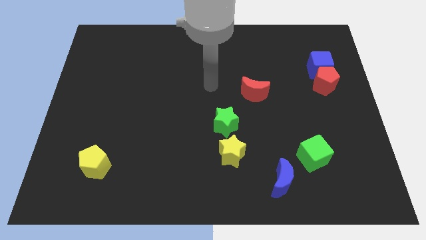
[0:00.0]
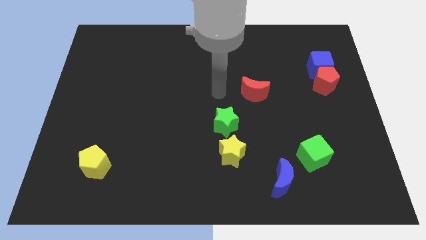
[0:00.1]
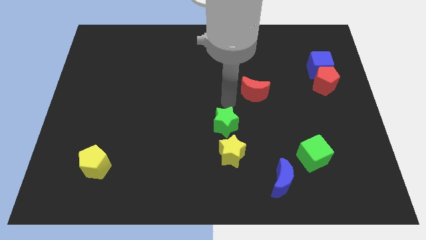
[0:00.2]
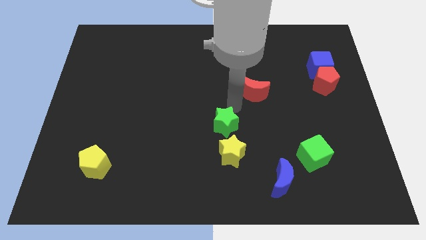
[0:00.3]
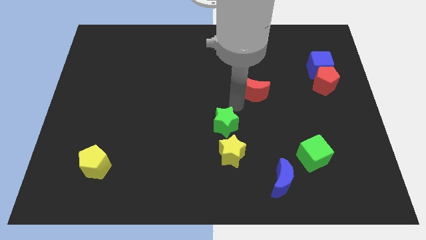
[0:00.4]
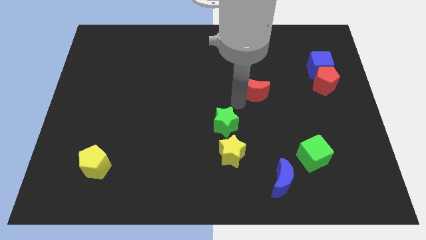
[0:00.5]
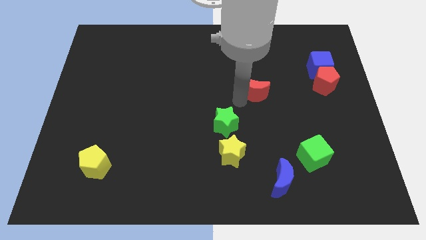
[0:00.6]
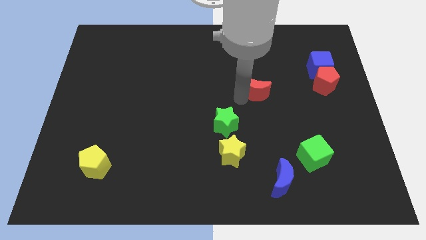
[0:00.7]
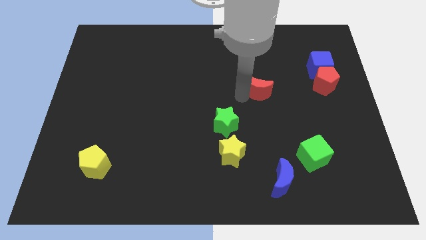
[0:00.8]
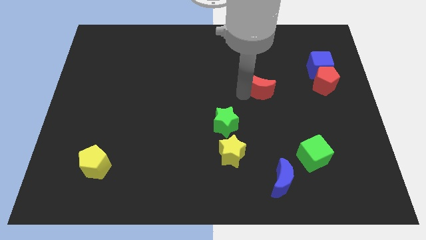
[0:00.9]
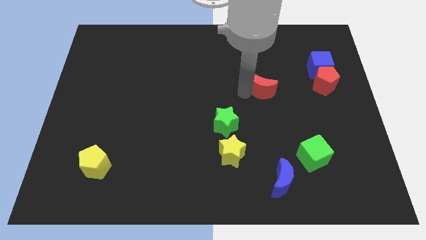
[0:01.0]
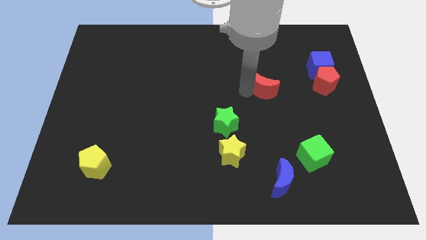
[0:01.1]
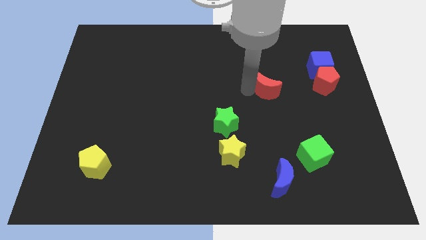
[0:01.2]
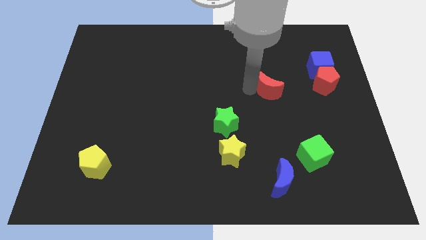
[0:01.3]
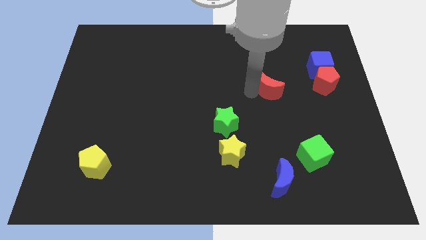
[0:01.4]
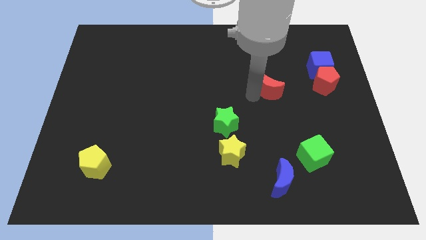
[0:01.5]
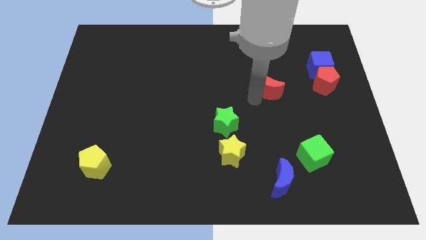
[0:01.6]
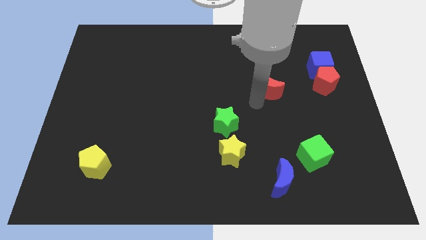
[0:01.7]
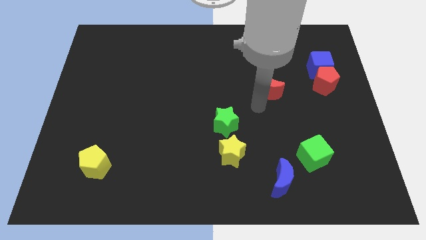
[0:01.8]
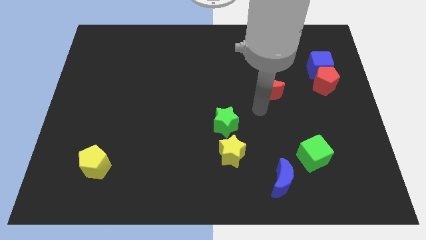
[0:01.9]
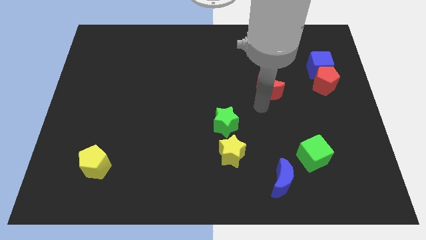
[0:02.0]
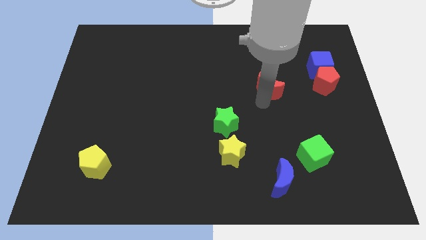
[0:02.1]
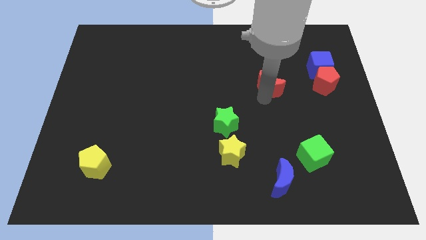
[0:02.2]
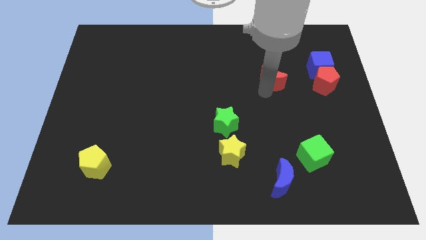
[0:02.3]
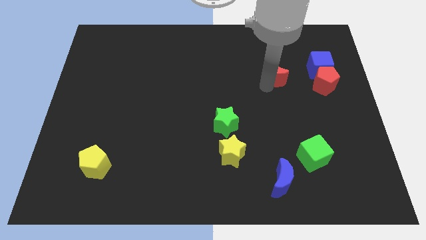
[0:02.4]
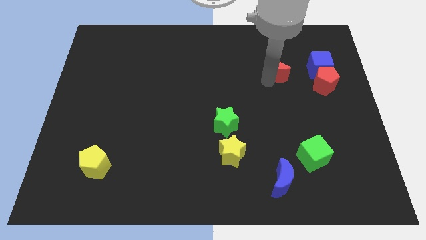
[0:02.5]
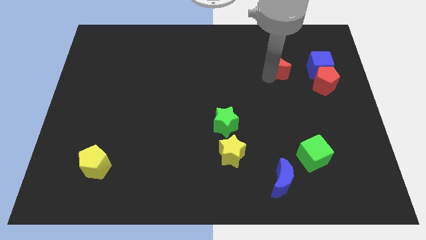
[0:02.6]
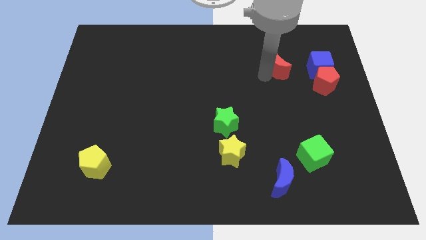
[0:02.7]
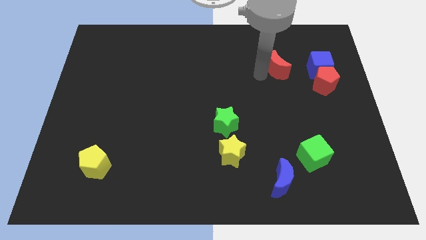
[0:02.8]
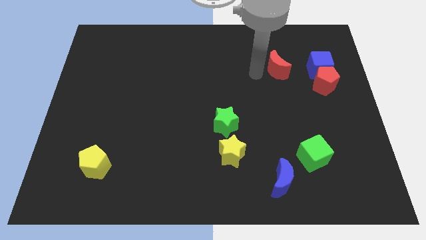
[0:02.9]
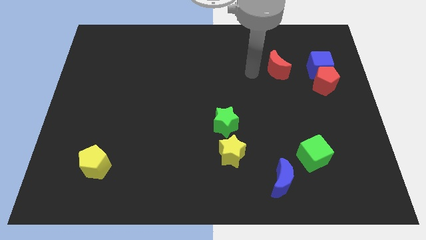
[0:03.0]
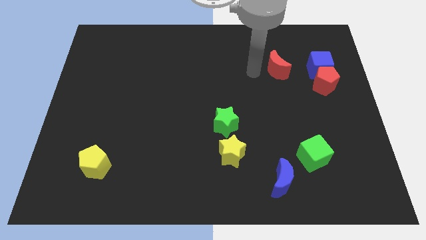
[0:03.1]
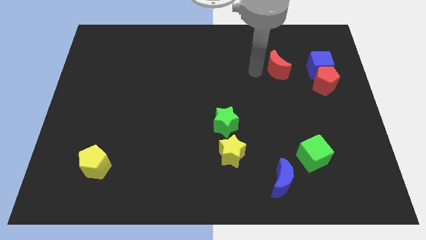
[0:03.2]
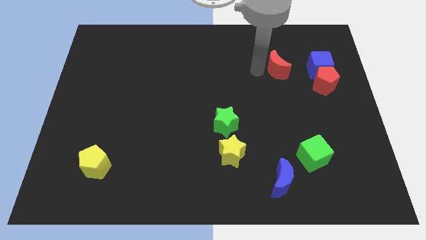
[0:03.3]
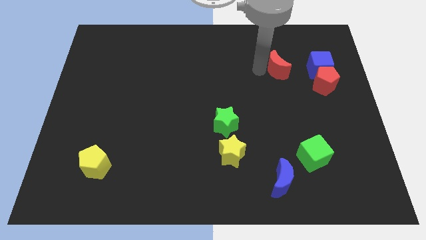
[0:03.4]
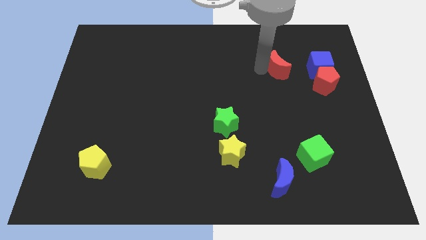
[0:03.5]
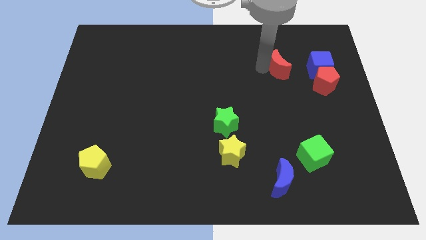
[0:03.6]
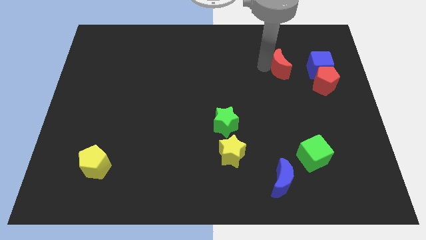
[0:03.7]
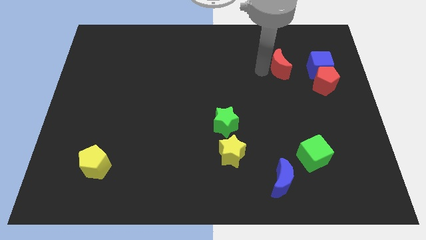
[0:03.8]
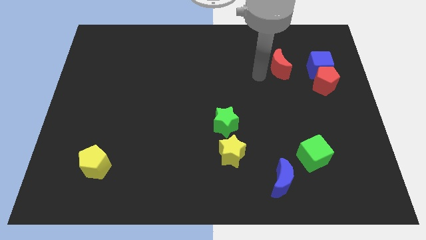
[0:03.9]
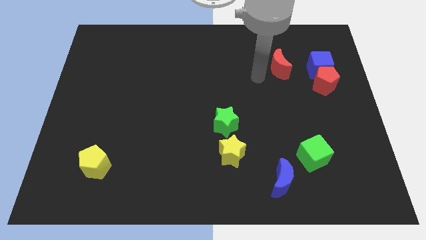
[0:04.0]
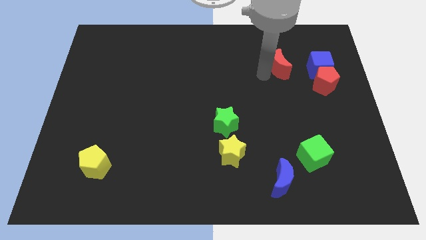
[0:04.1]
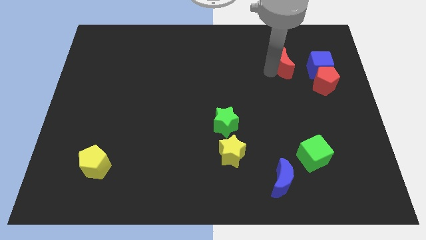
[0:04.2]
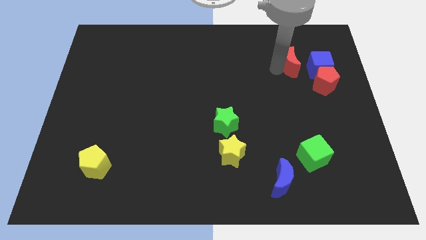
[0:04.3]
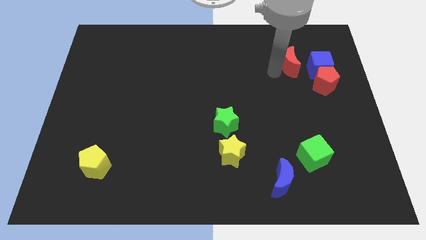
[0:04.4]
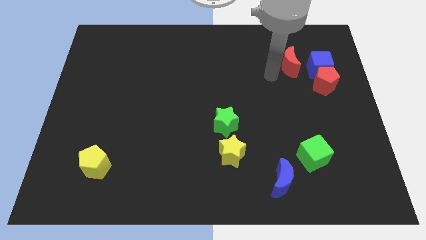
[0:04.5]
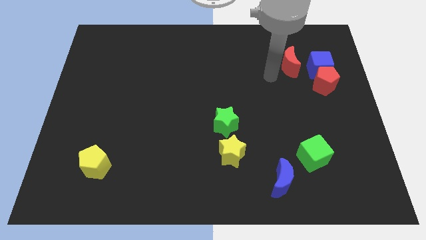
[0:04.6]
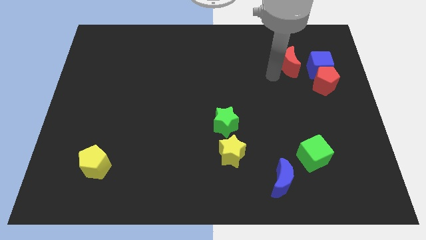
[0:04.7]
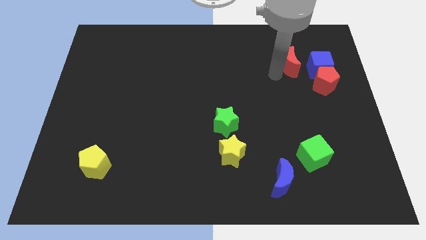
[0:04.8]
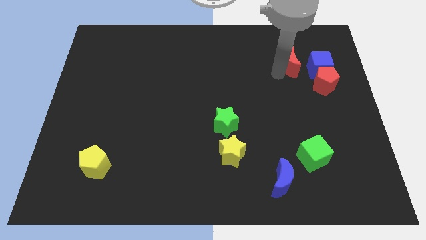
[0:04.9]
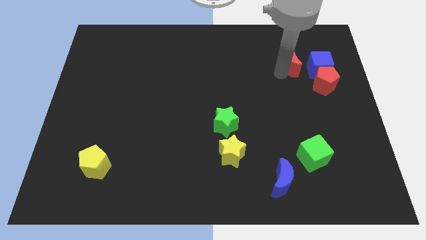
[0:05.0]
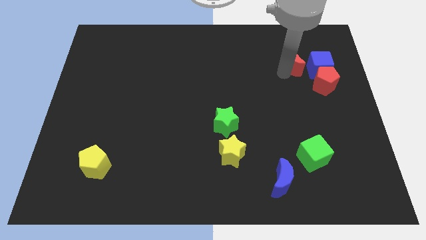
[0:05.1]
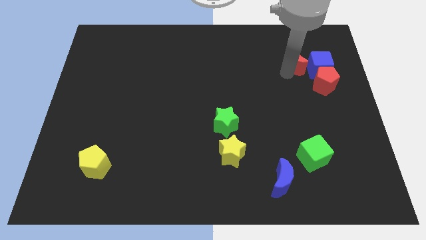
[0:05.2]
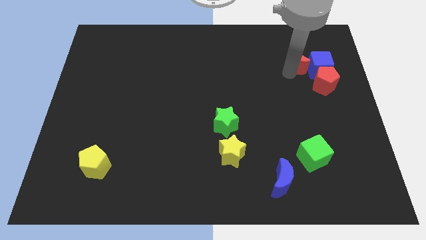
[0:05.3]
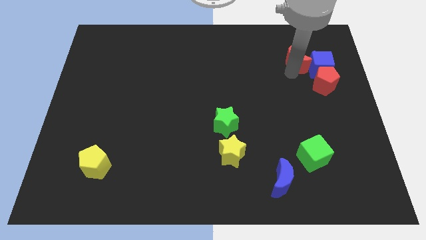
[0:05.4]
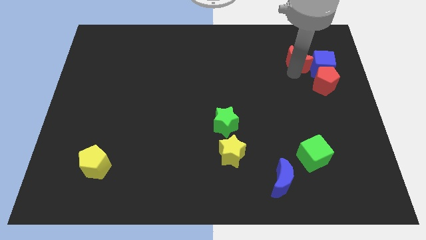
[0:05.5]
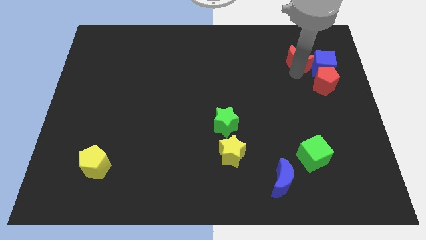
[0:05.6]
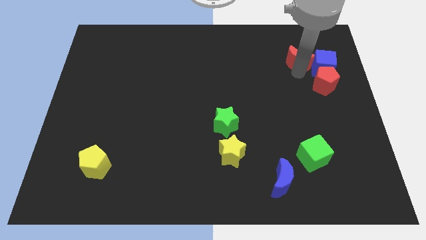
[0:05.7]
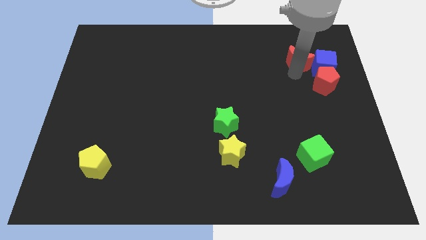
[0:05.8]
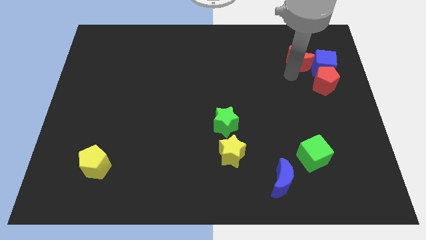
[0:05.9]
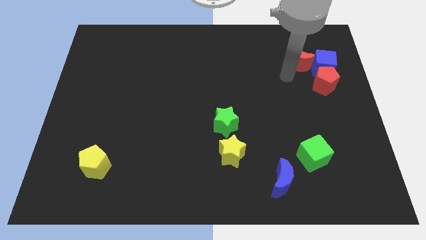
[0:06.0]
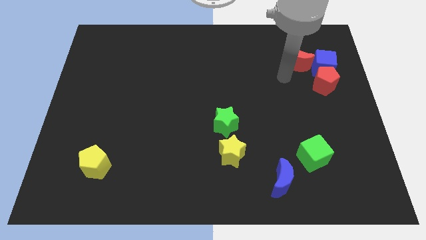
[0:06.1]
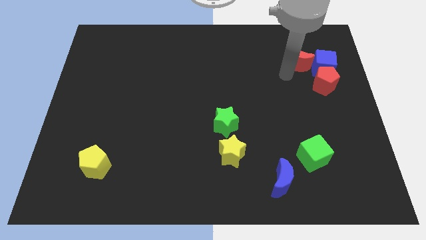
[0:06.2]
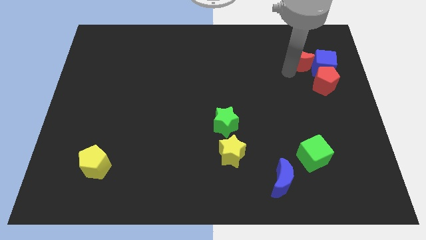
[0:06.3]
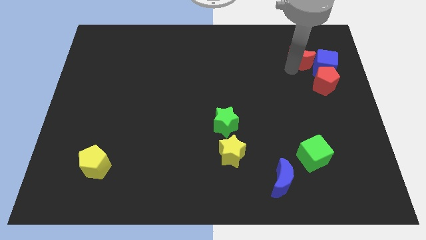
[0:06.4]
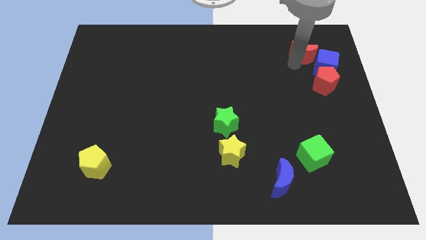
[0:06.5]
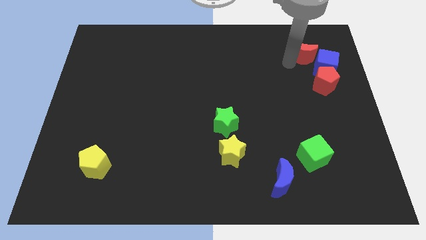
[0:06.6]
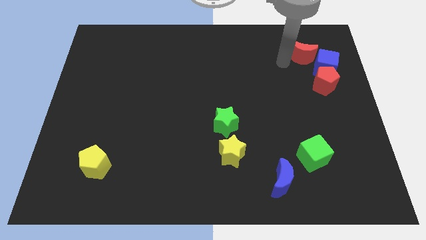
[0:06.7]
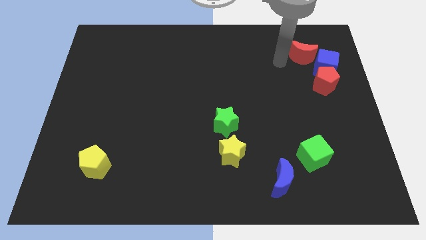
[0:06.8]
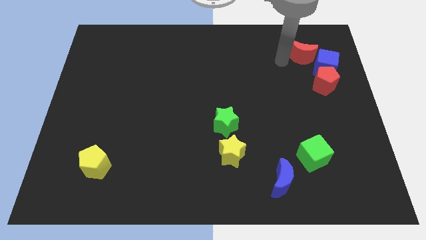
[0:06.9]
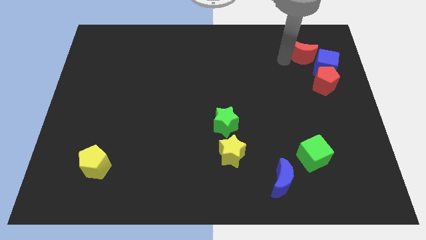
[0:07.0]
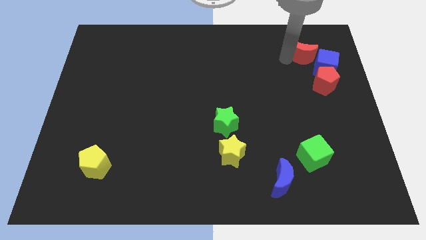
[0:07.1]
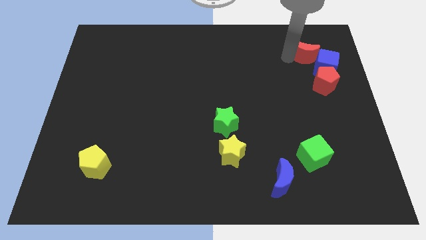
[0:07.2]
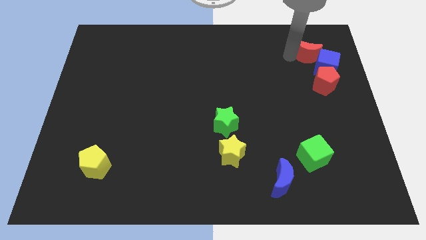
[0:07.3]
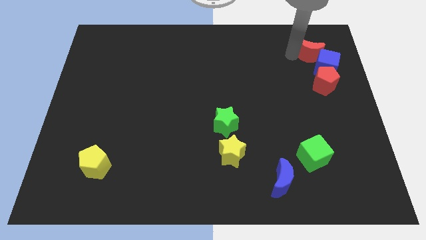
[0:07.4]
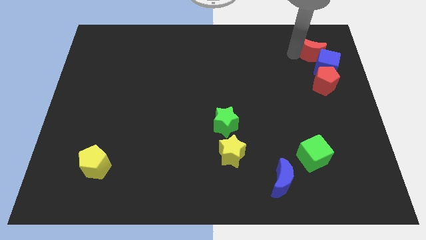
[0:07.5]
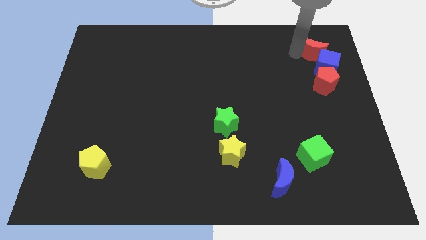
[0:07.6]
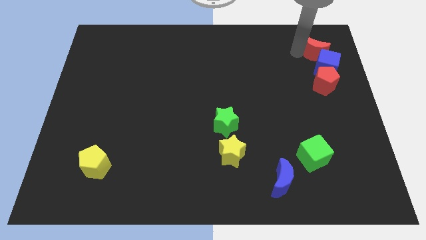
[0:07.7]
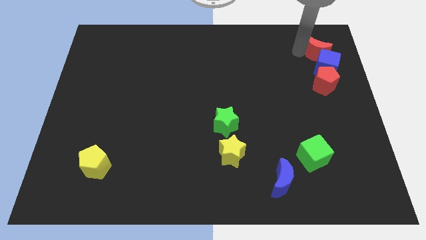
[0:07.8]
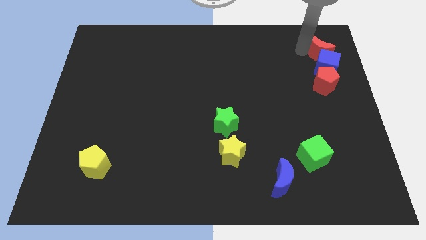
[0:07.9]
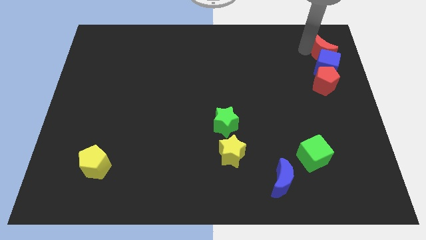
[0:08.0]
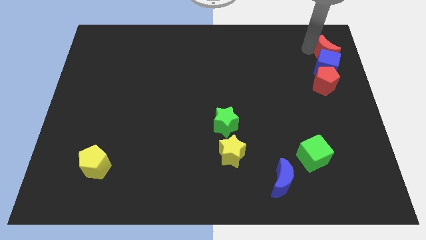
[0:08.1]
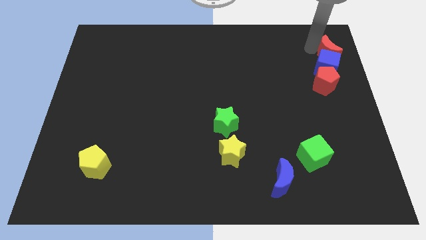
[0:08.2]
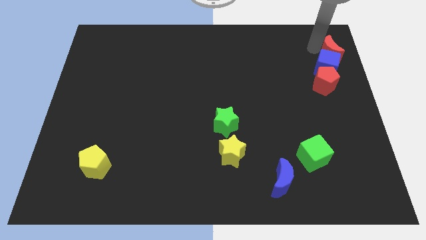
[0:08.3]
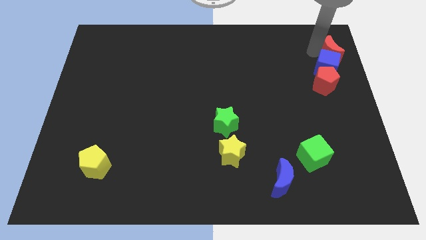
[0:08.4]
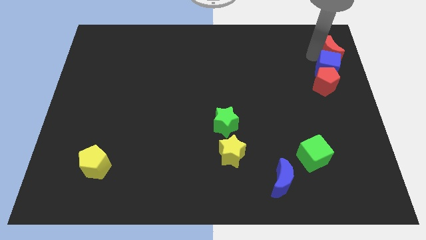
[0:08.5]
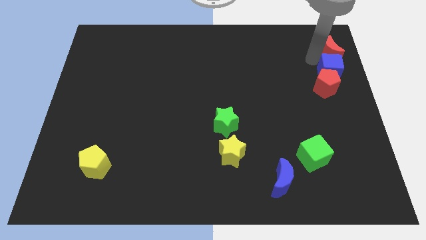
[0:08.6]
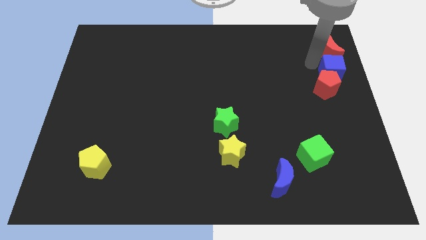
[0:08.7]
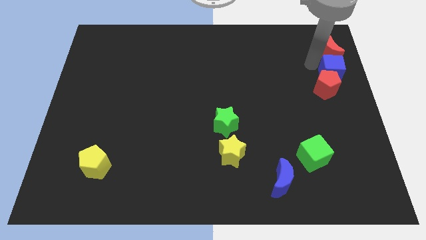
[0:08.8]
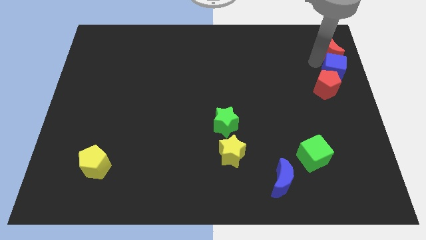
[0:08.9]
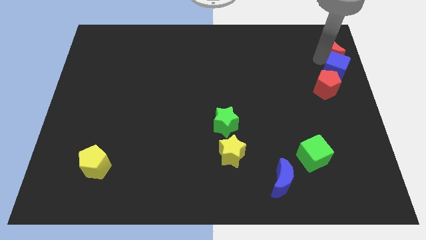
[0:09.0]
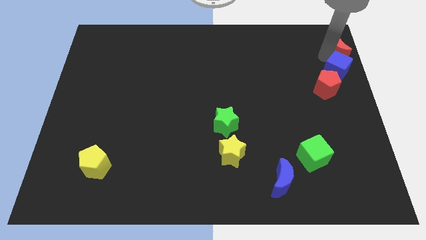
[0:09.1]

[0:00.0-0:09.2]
slide the red moon to the top right corner
